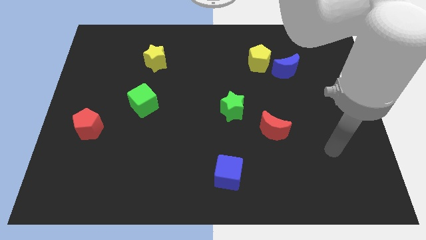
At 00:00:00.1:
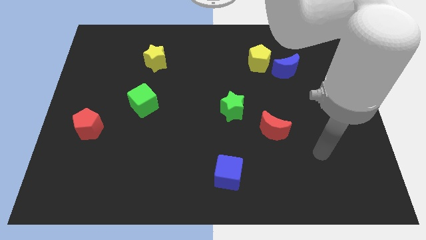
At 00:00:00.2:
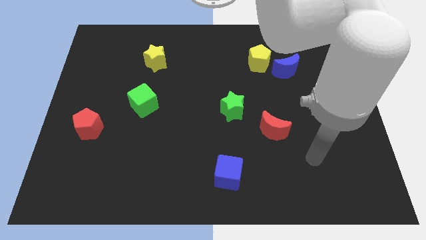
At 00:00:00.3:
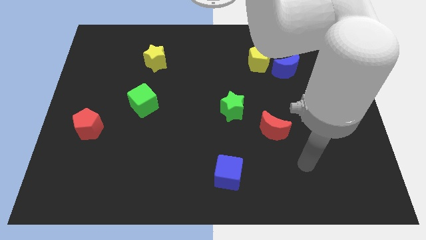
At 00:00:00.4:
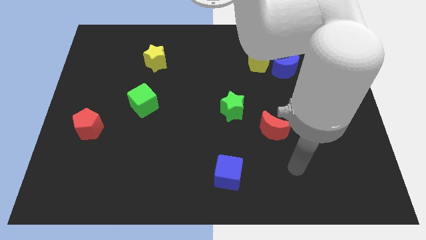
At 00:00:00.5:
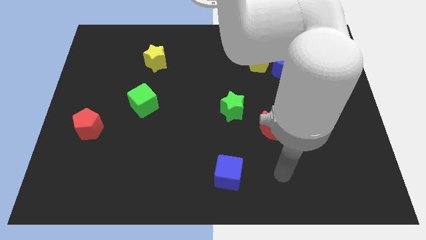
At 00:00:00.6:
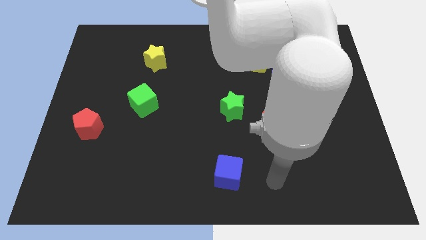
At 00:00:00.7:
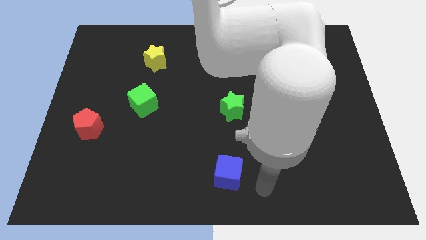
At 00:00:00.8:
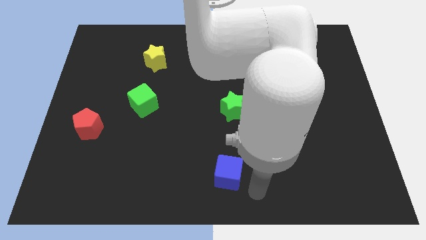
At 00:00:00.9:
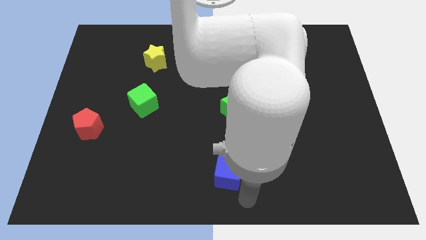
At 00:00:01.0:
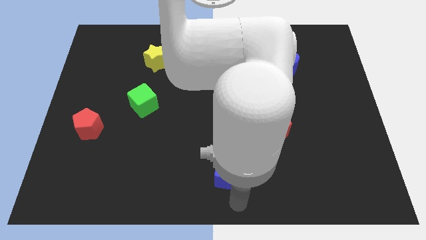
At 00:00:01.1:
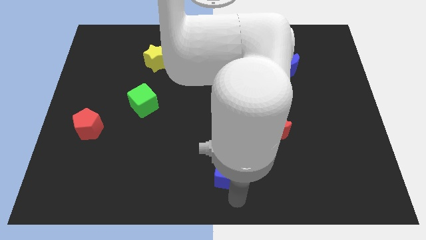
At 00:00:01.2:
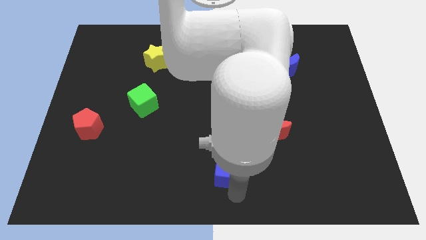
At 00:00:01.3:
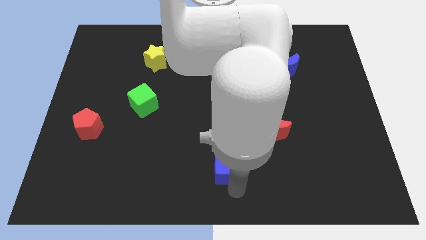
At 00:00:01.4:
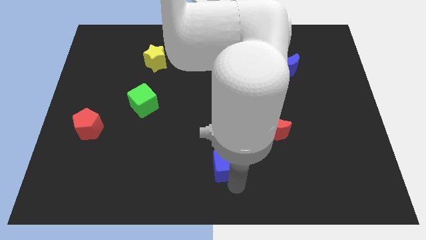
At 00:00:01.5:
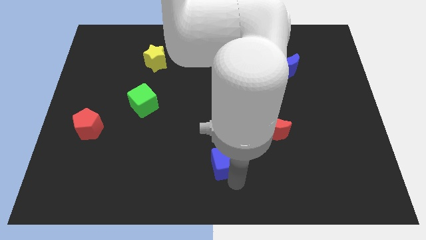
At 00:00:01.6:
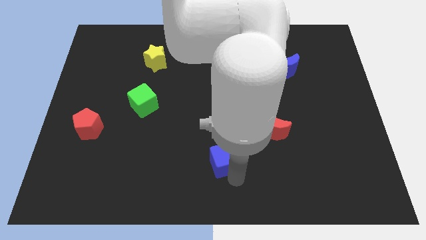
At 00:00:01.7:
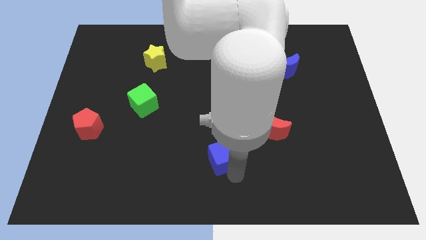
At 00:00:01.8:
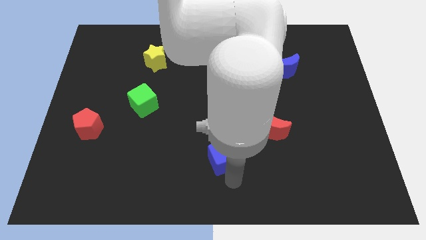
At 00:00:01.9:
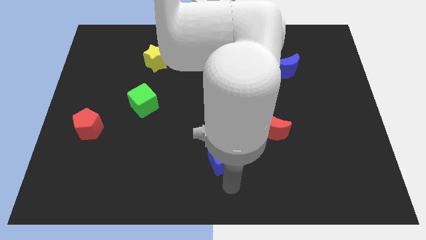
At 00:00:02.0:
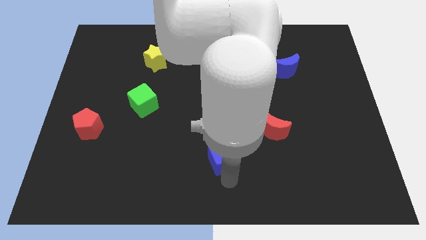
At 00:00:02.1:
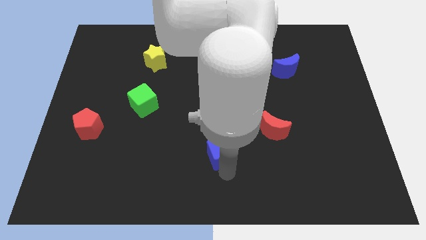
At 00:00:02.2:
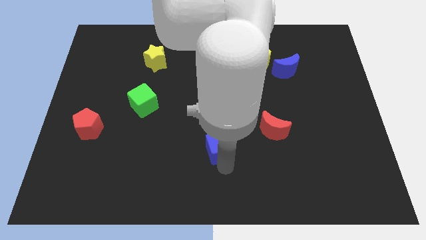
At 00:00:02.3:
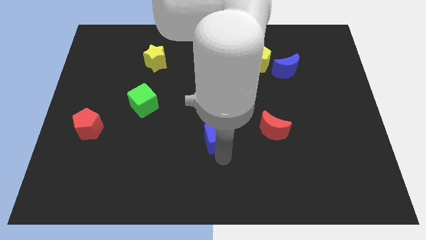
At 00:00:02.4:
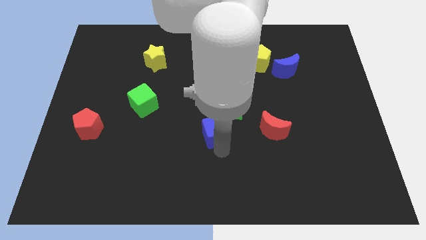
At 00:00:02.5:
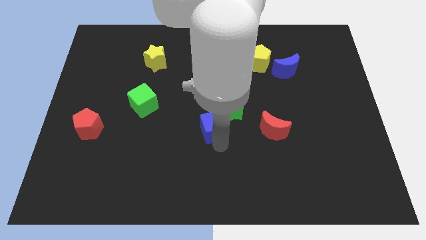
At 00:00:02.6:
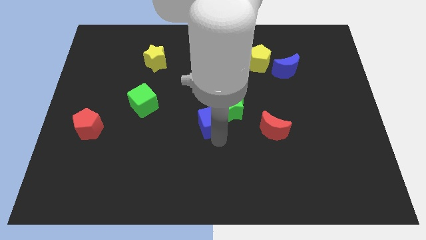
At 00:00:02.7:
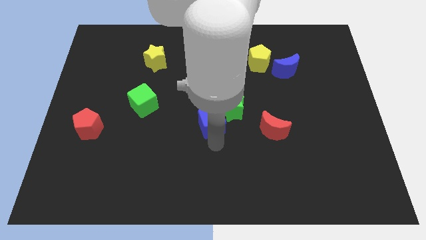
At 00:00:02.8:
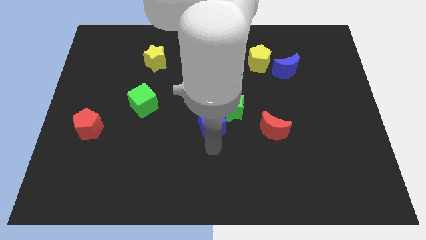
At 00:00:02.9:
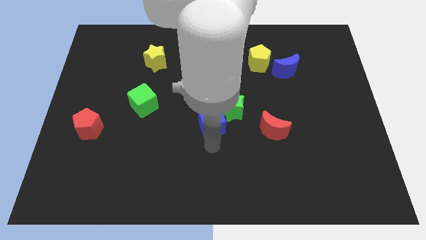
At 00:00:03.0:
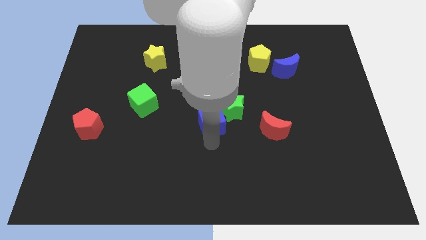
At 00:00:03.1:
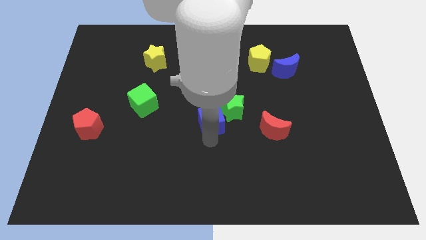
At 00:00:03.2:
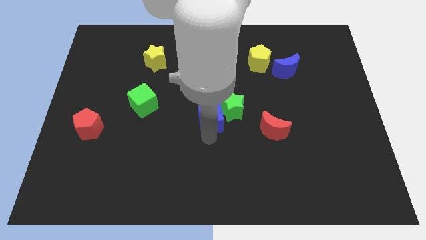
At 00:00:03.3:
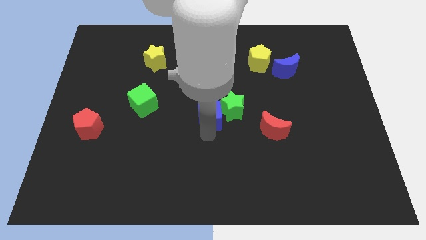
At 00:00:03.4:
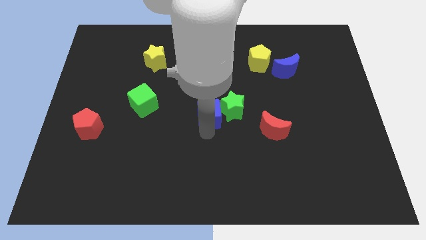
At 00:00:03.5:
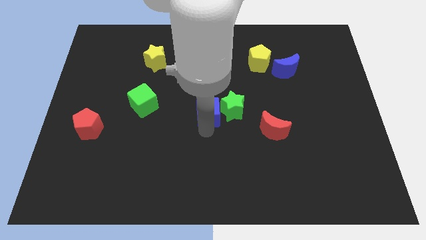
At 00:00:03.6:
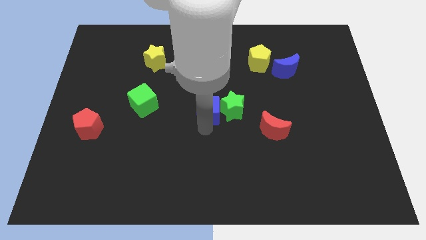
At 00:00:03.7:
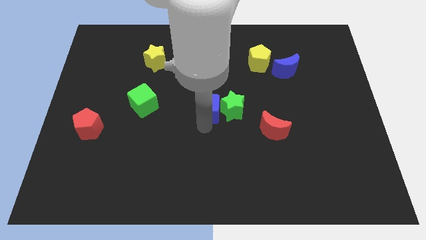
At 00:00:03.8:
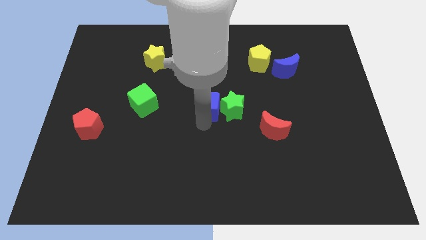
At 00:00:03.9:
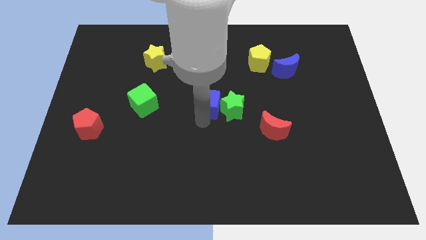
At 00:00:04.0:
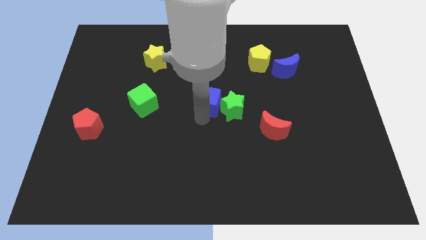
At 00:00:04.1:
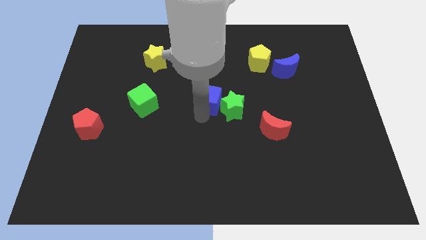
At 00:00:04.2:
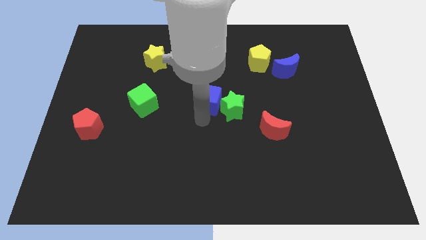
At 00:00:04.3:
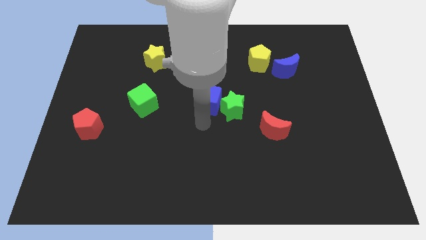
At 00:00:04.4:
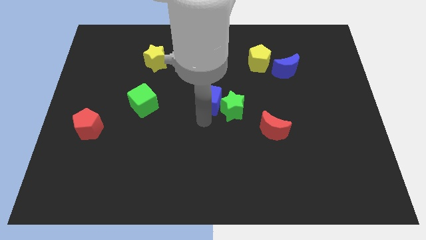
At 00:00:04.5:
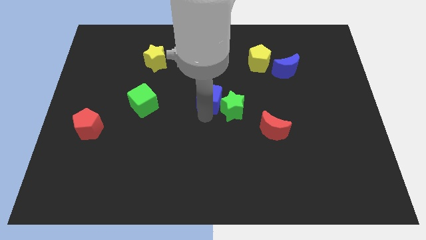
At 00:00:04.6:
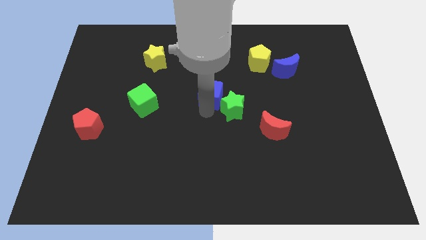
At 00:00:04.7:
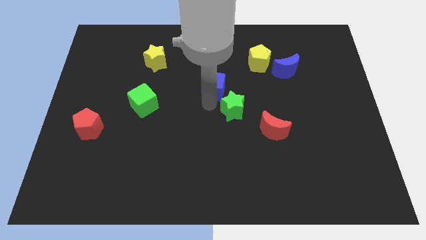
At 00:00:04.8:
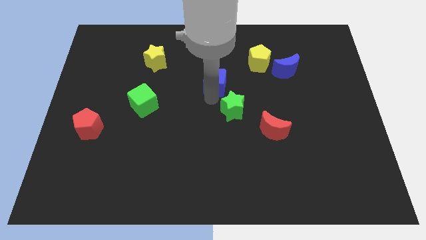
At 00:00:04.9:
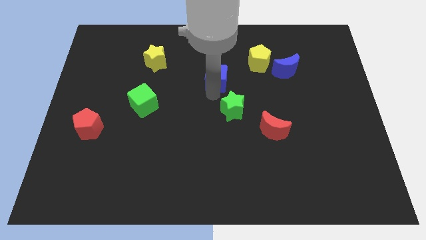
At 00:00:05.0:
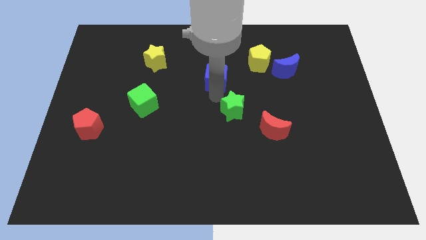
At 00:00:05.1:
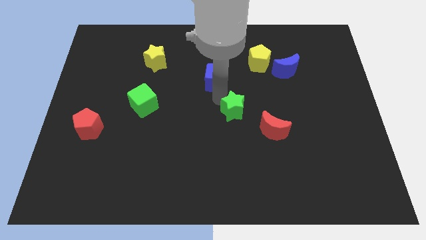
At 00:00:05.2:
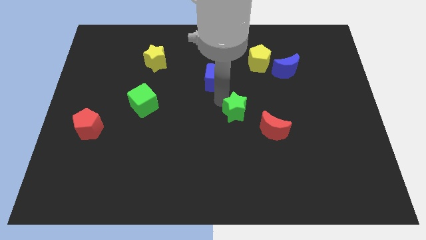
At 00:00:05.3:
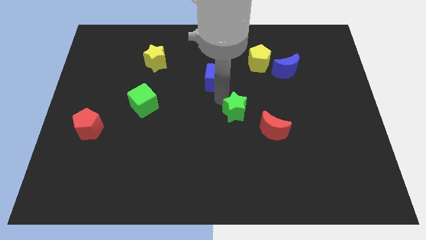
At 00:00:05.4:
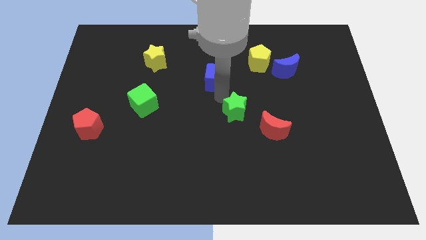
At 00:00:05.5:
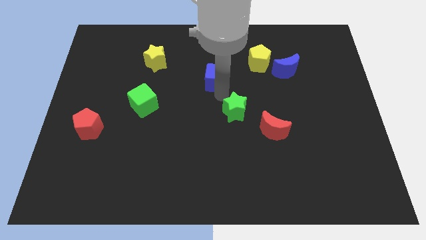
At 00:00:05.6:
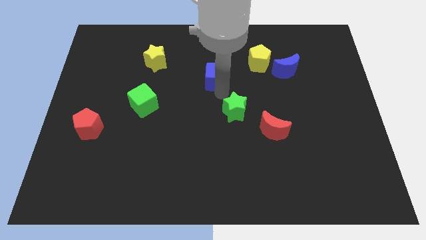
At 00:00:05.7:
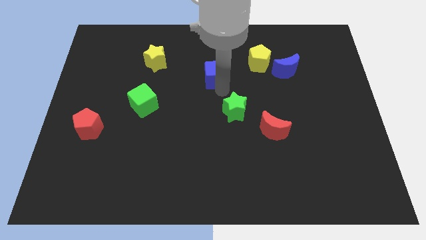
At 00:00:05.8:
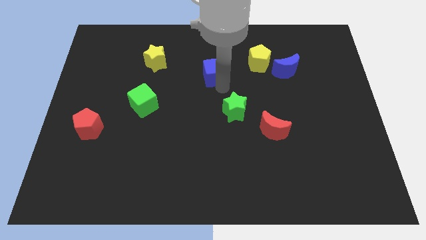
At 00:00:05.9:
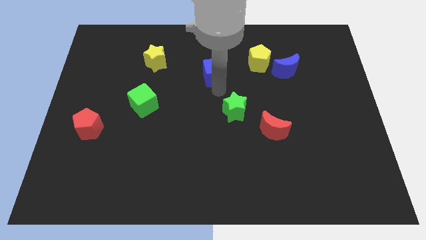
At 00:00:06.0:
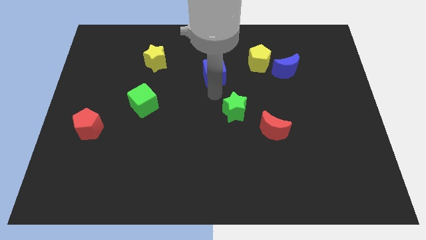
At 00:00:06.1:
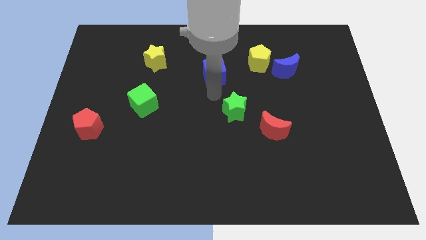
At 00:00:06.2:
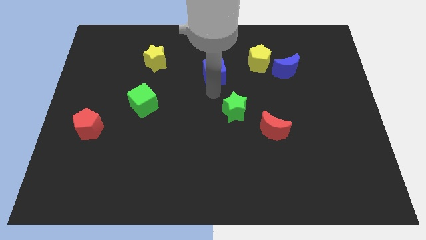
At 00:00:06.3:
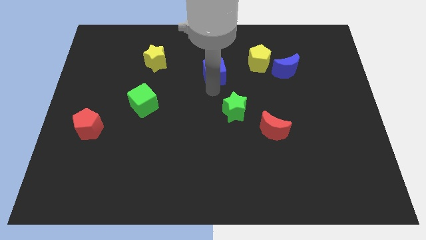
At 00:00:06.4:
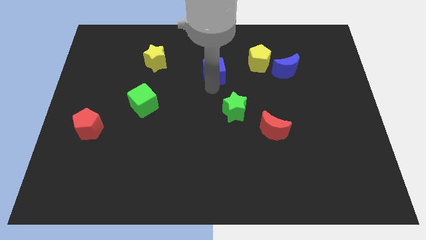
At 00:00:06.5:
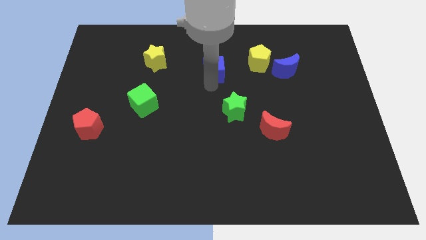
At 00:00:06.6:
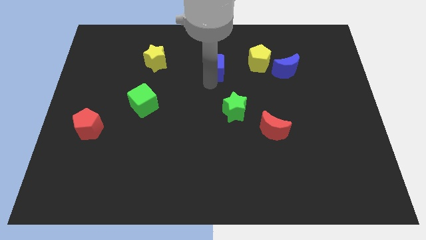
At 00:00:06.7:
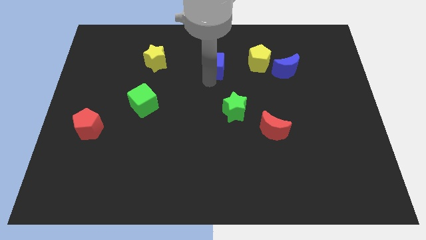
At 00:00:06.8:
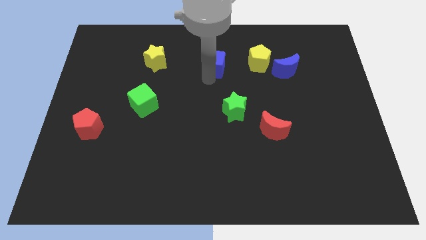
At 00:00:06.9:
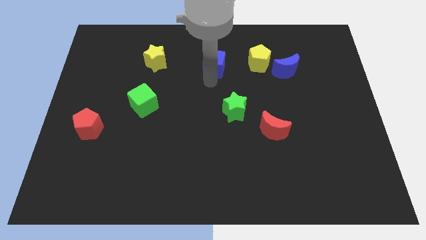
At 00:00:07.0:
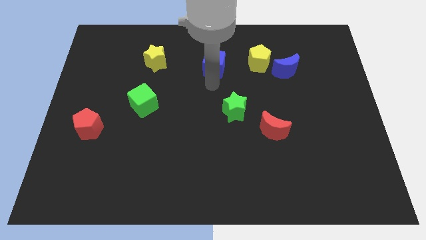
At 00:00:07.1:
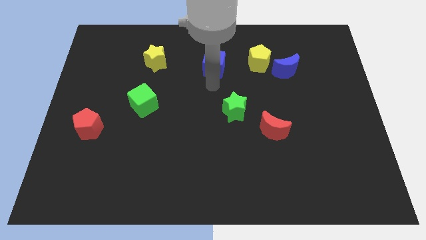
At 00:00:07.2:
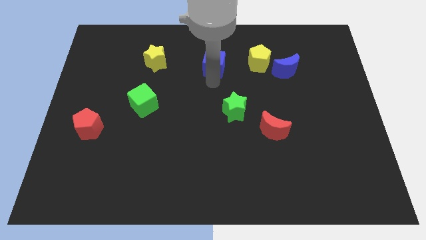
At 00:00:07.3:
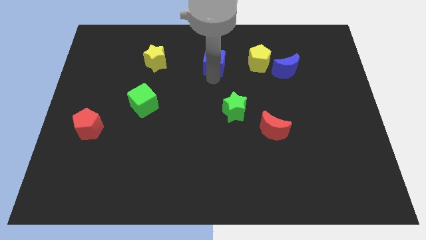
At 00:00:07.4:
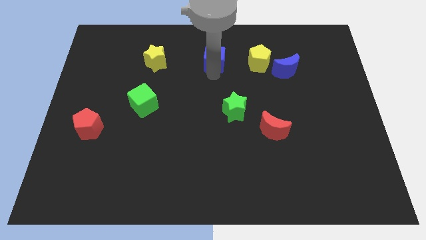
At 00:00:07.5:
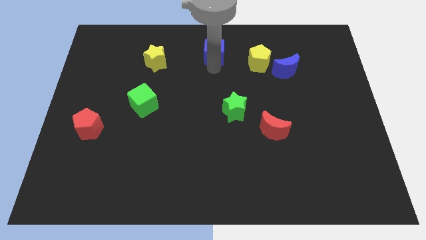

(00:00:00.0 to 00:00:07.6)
slide the blue cube to the top
